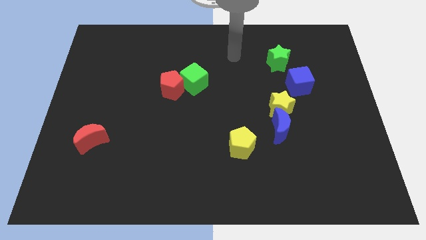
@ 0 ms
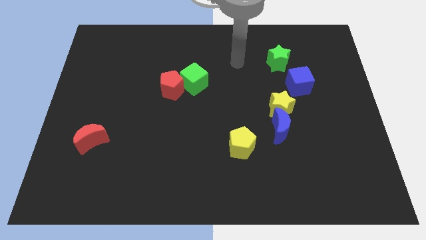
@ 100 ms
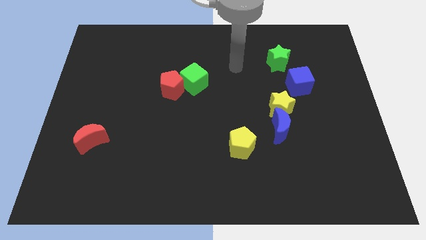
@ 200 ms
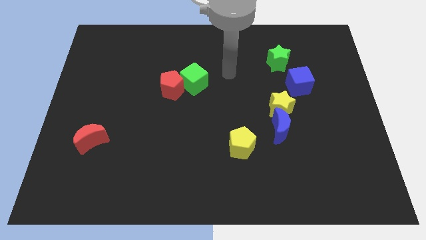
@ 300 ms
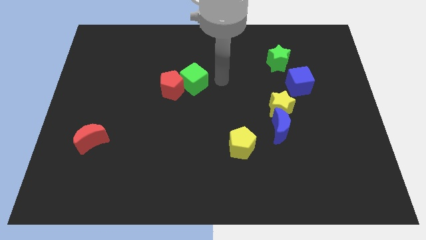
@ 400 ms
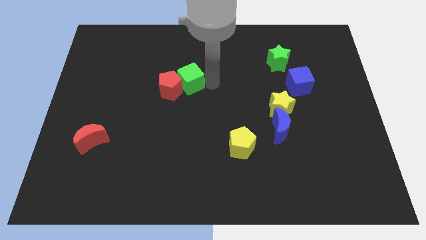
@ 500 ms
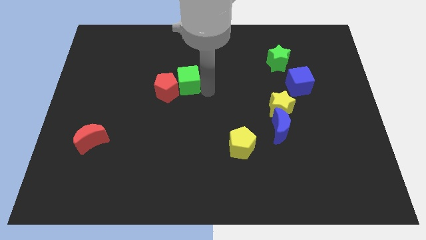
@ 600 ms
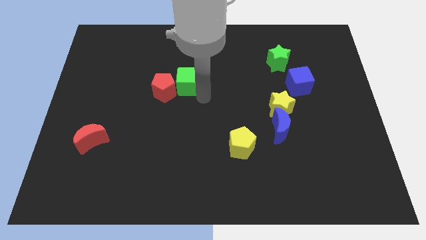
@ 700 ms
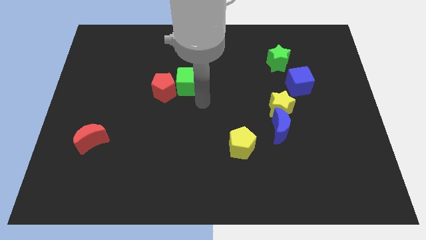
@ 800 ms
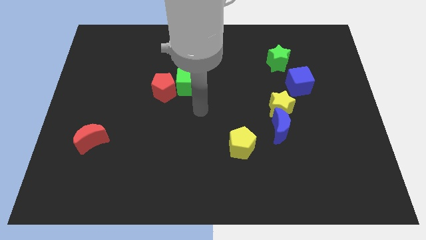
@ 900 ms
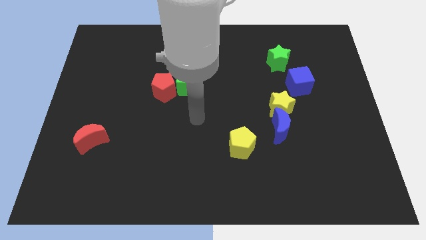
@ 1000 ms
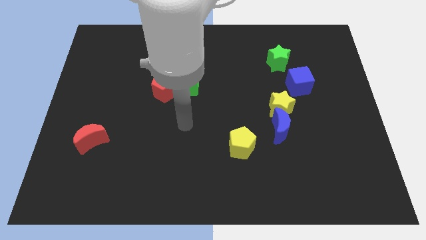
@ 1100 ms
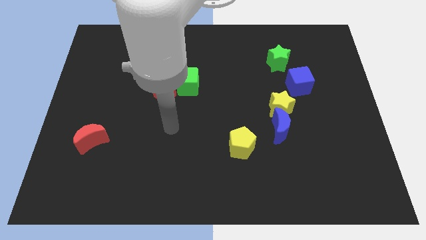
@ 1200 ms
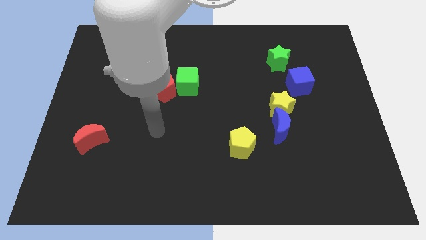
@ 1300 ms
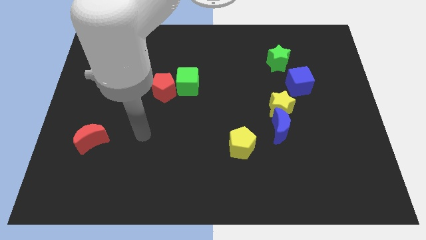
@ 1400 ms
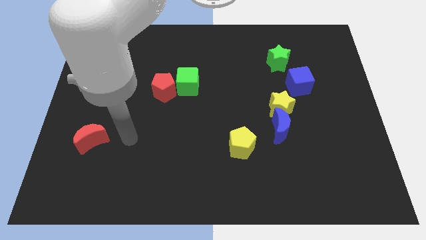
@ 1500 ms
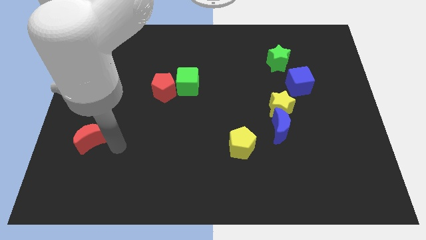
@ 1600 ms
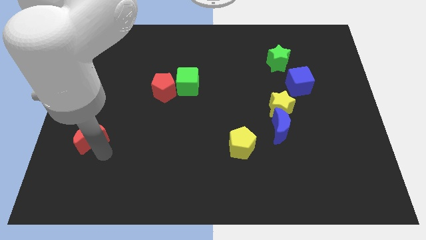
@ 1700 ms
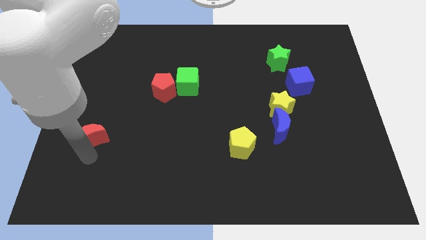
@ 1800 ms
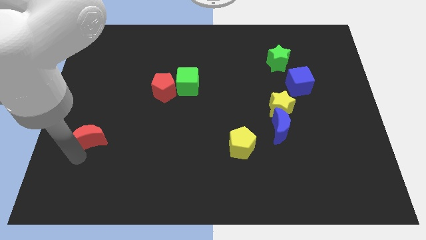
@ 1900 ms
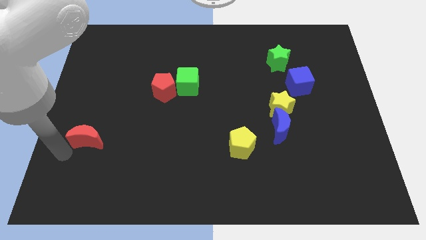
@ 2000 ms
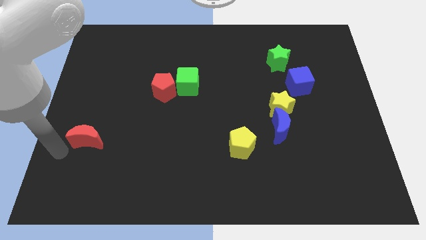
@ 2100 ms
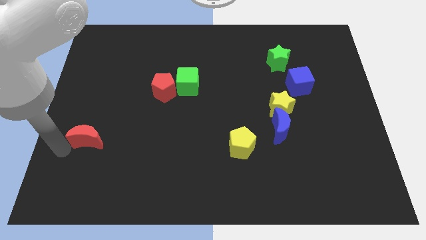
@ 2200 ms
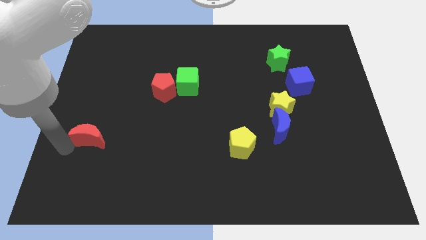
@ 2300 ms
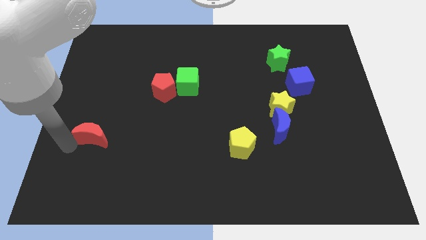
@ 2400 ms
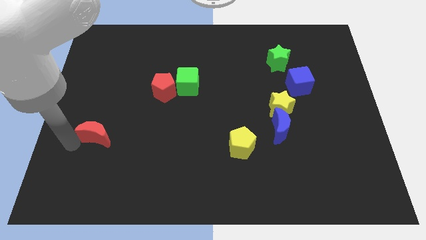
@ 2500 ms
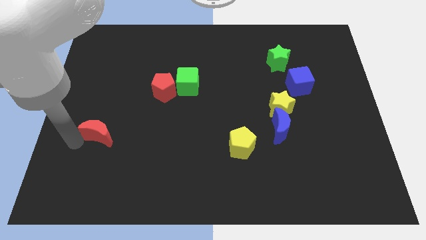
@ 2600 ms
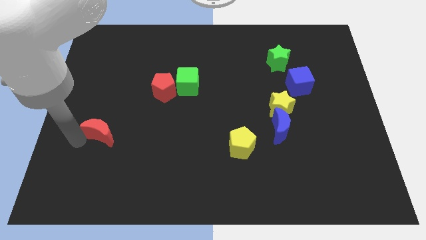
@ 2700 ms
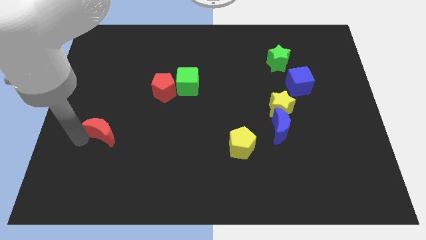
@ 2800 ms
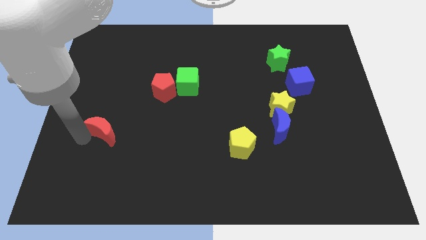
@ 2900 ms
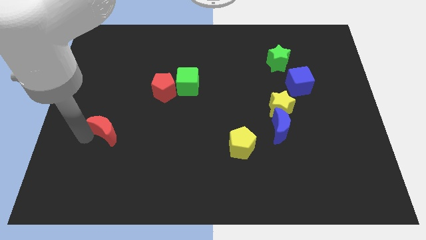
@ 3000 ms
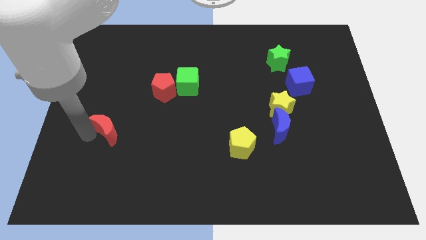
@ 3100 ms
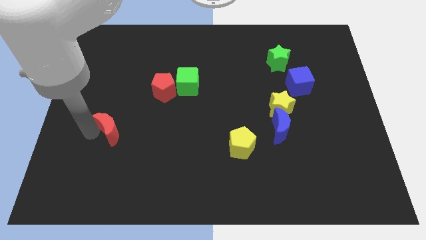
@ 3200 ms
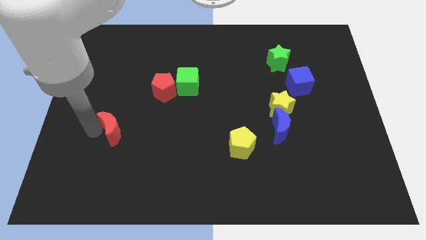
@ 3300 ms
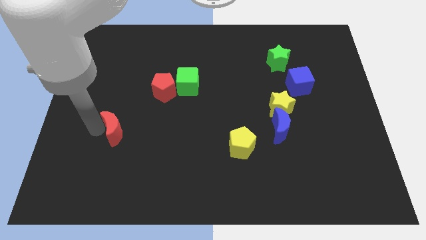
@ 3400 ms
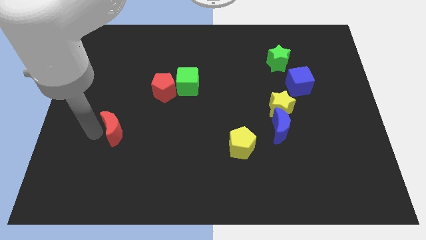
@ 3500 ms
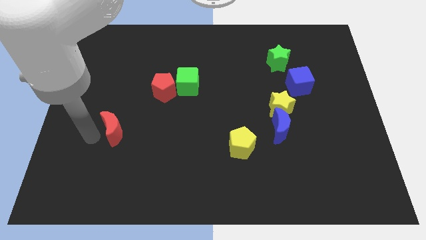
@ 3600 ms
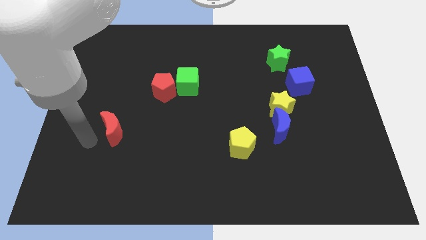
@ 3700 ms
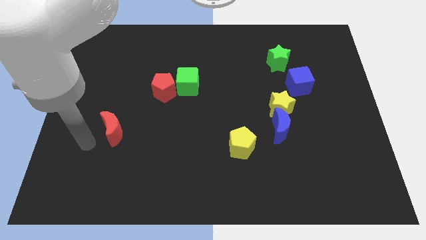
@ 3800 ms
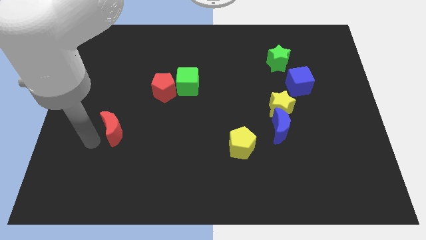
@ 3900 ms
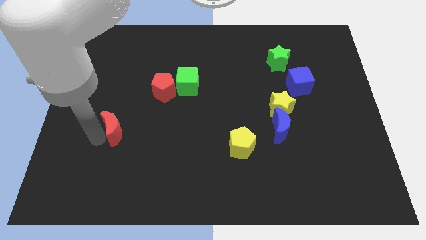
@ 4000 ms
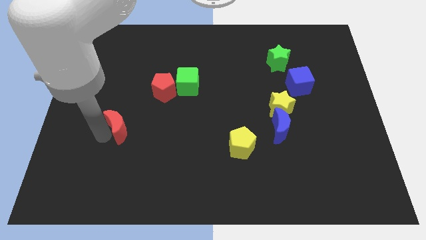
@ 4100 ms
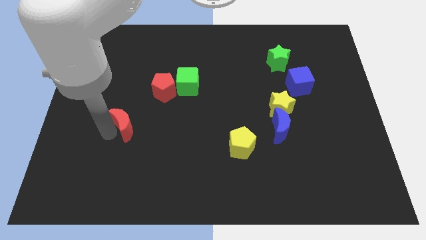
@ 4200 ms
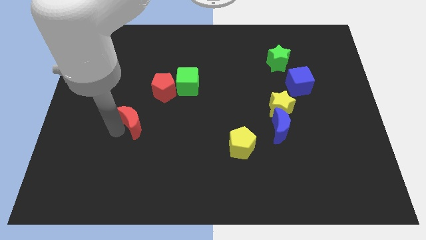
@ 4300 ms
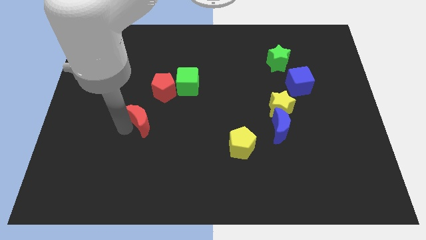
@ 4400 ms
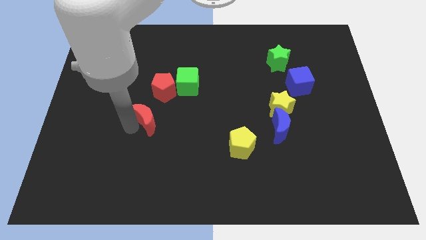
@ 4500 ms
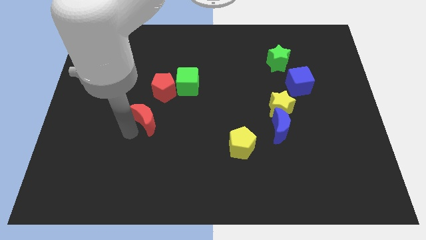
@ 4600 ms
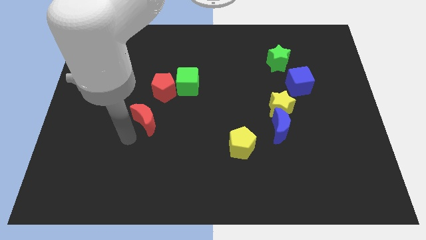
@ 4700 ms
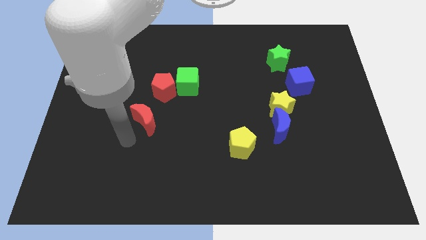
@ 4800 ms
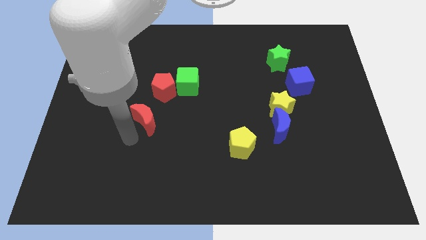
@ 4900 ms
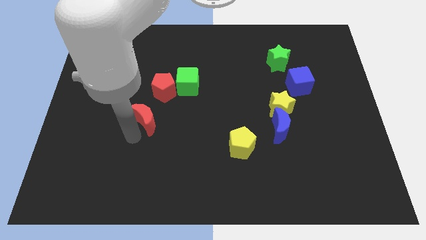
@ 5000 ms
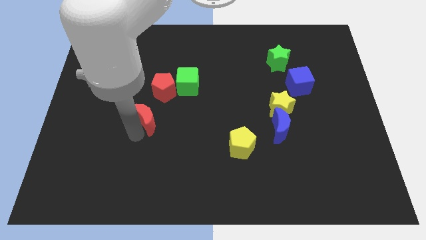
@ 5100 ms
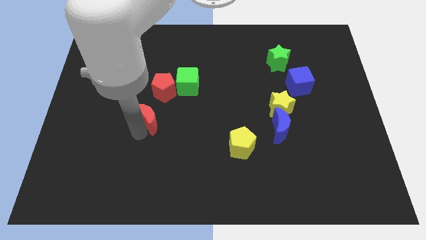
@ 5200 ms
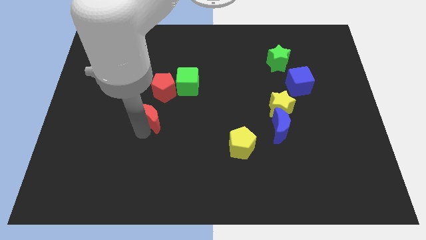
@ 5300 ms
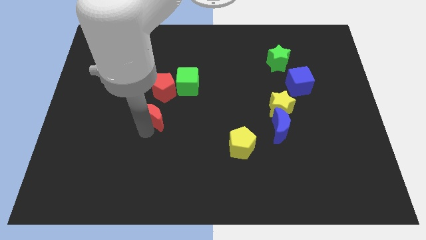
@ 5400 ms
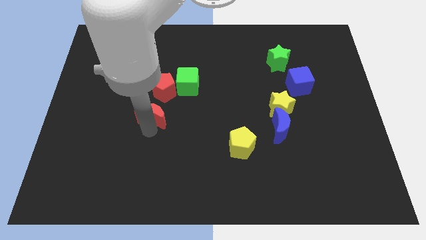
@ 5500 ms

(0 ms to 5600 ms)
move the red moon diagonally down and to the left of the green cube

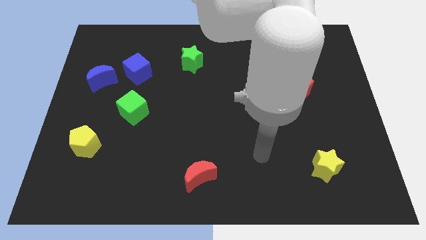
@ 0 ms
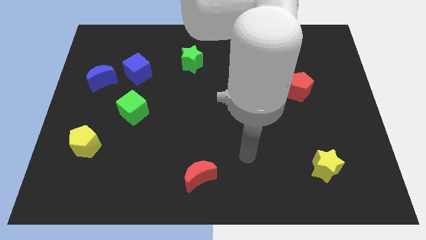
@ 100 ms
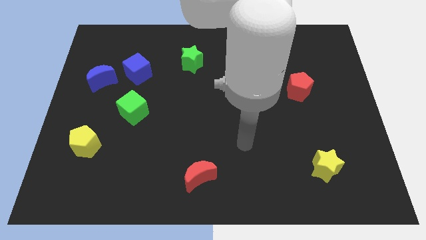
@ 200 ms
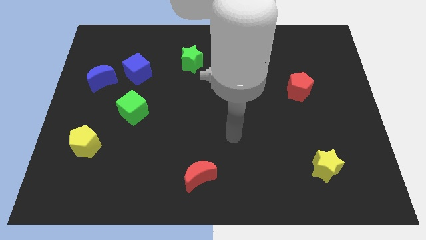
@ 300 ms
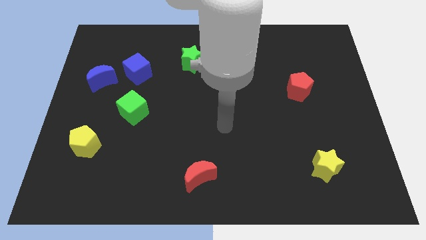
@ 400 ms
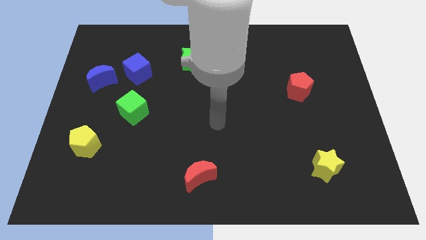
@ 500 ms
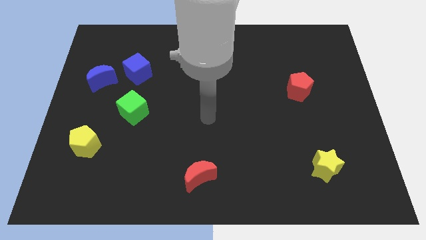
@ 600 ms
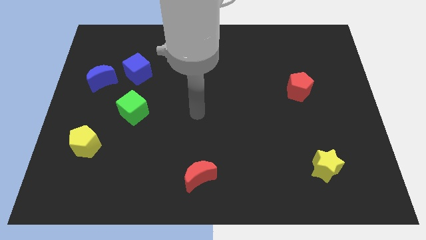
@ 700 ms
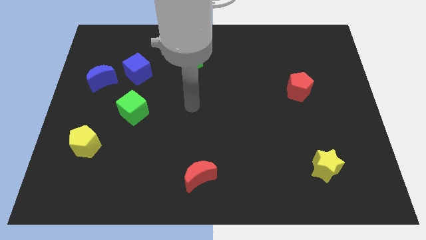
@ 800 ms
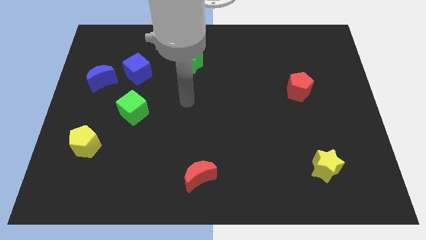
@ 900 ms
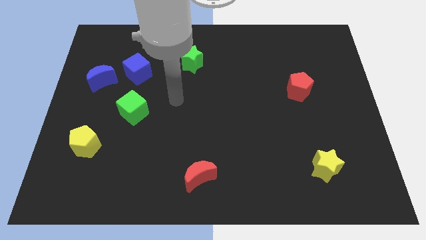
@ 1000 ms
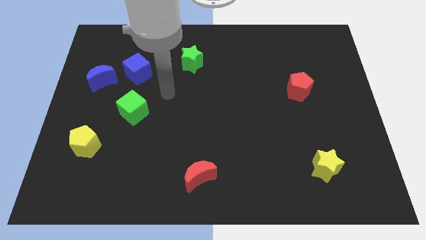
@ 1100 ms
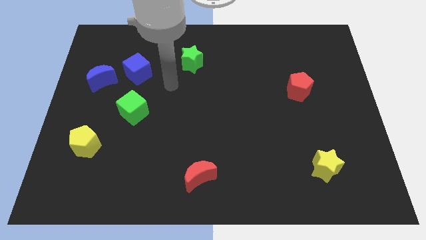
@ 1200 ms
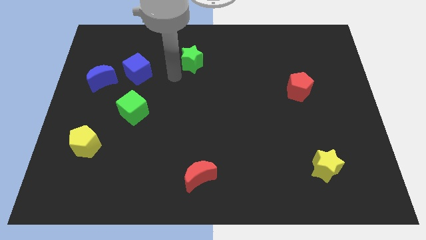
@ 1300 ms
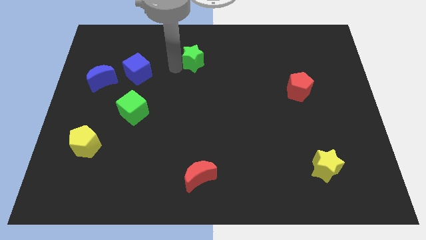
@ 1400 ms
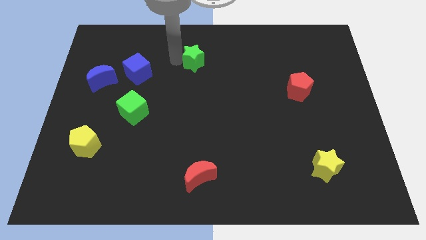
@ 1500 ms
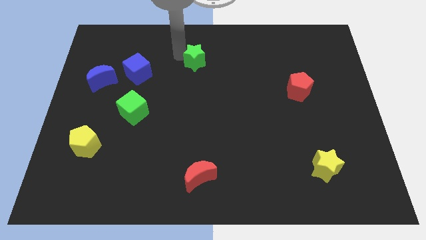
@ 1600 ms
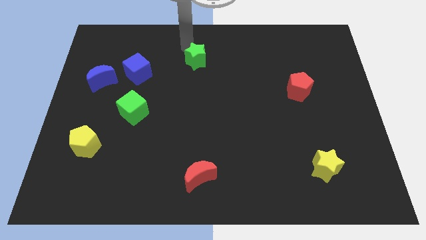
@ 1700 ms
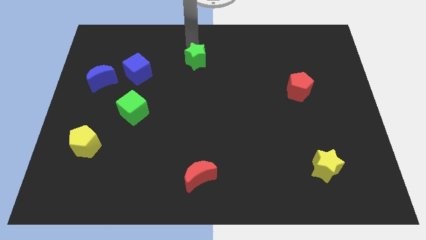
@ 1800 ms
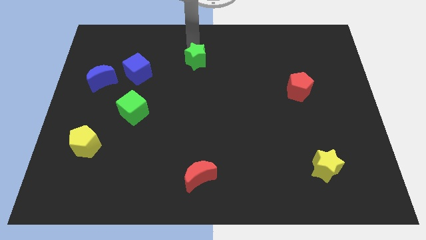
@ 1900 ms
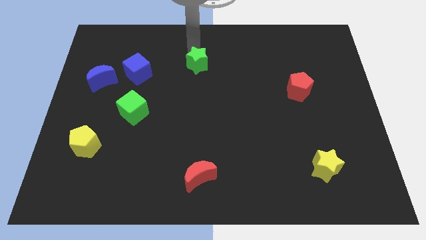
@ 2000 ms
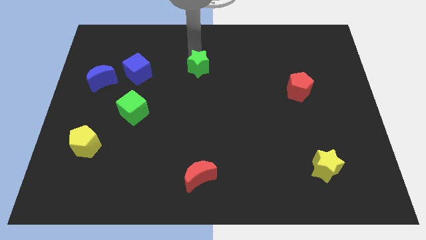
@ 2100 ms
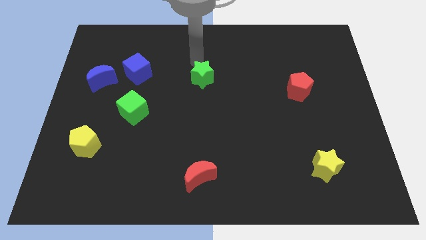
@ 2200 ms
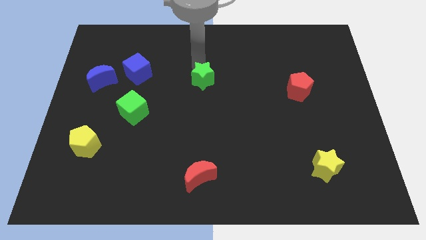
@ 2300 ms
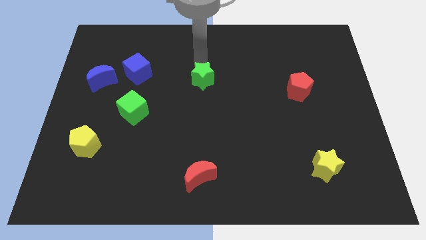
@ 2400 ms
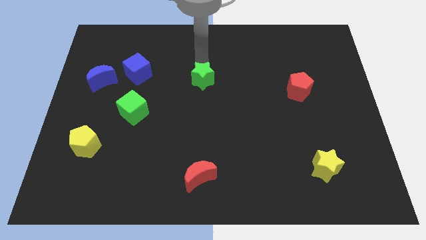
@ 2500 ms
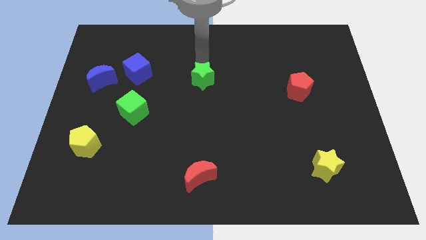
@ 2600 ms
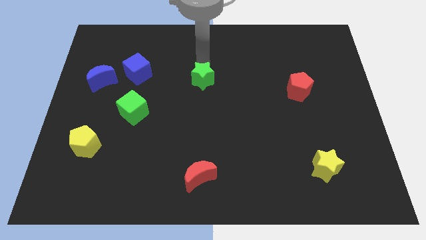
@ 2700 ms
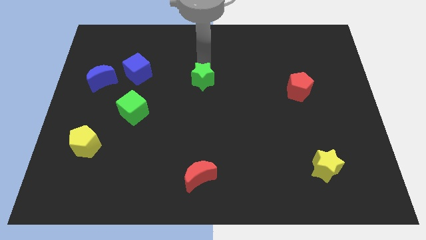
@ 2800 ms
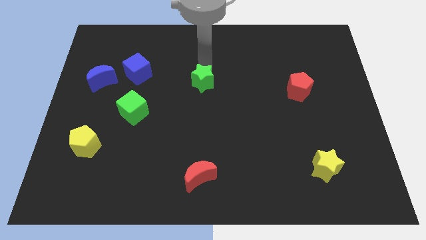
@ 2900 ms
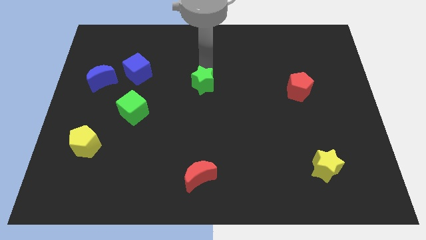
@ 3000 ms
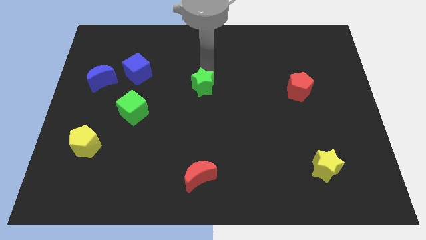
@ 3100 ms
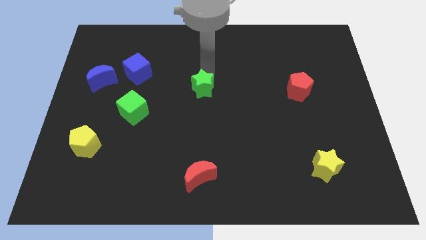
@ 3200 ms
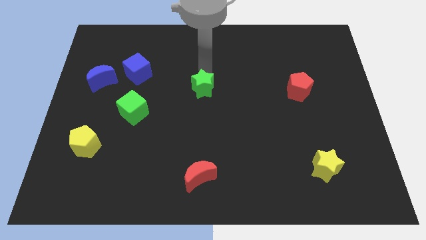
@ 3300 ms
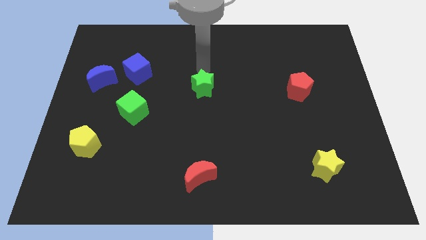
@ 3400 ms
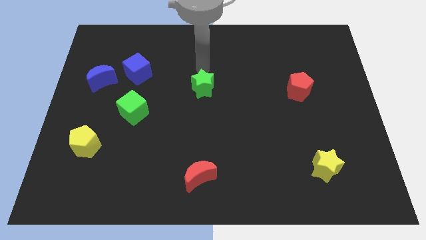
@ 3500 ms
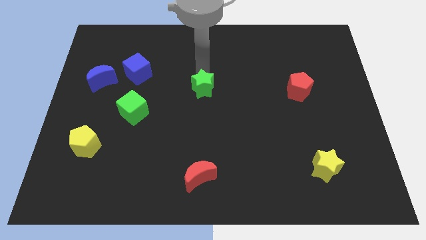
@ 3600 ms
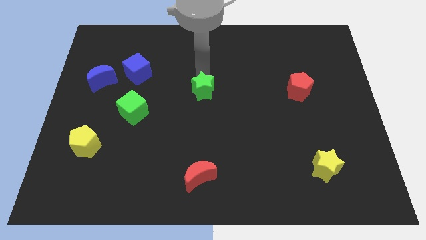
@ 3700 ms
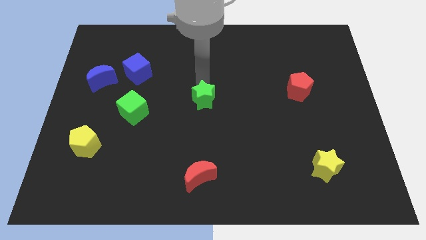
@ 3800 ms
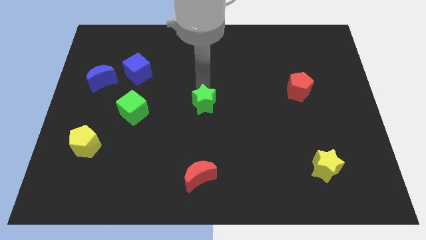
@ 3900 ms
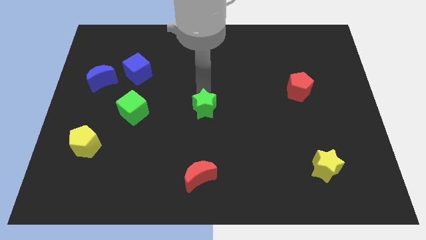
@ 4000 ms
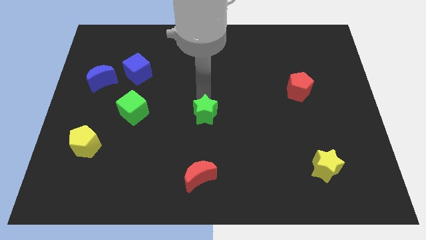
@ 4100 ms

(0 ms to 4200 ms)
push the green star to the top of the red moon
